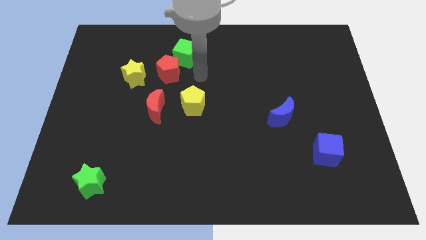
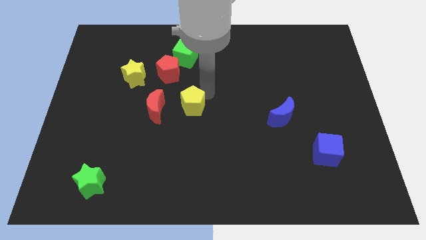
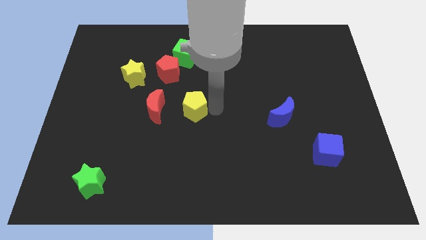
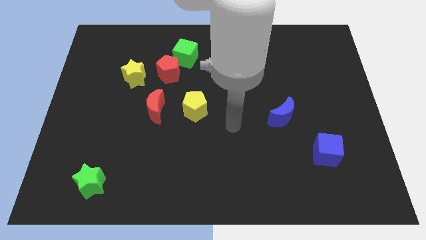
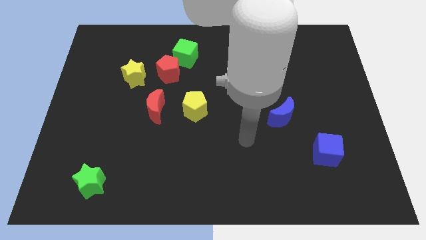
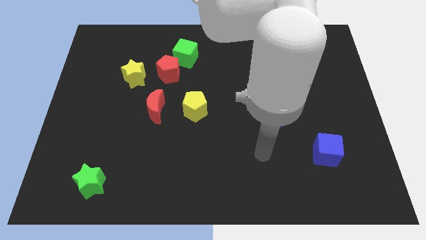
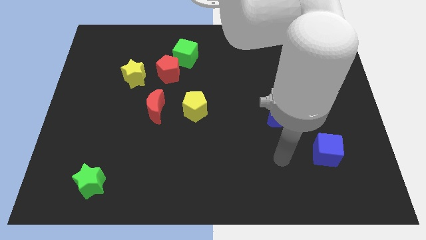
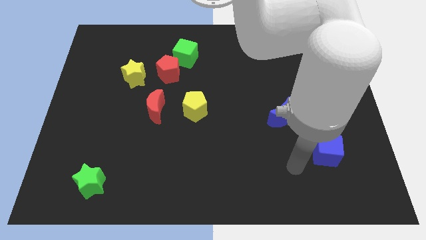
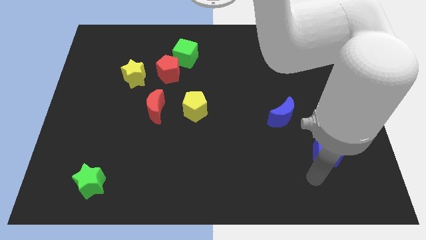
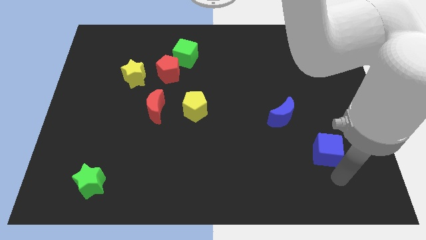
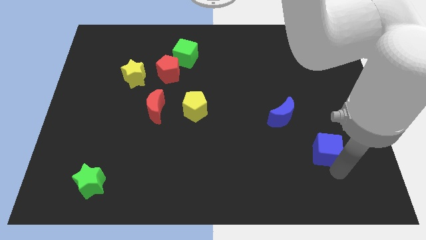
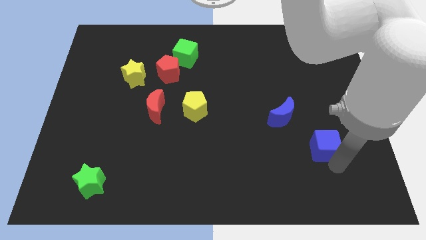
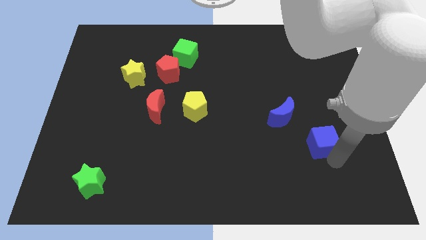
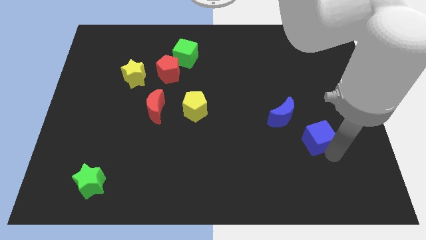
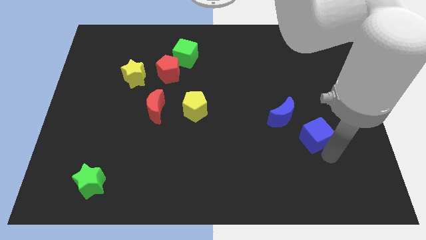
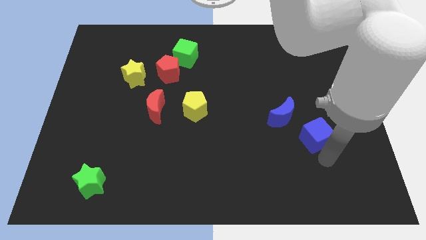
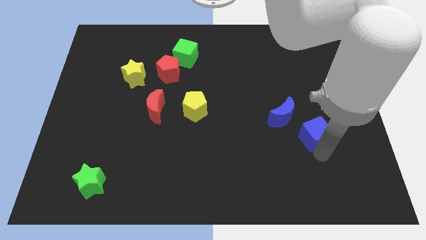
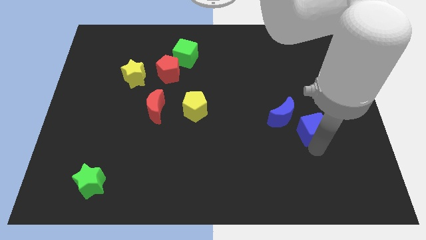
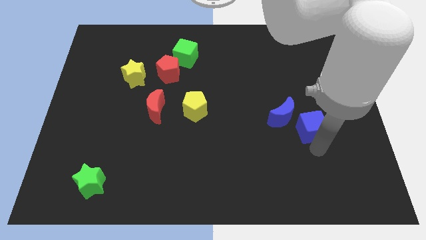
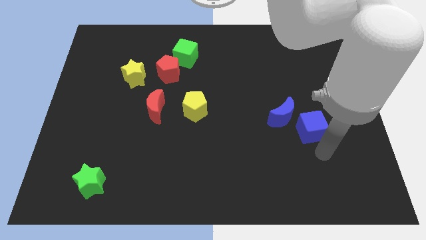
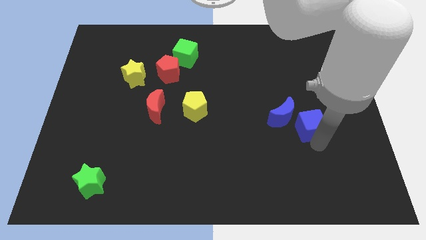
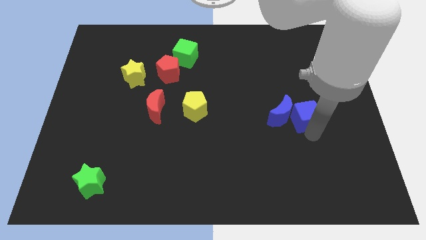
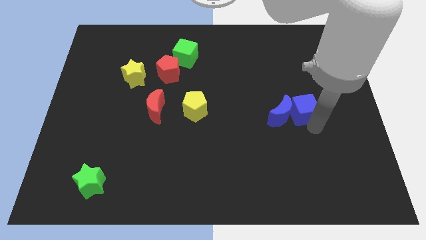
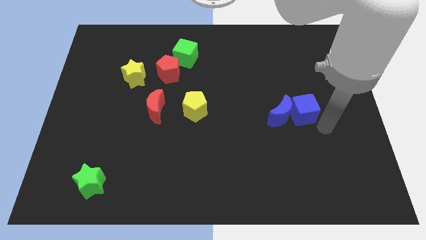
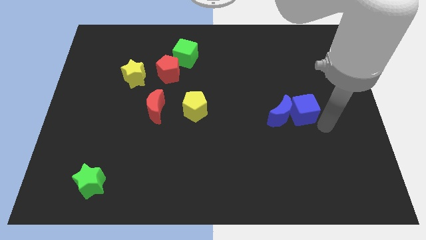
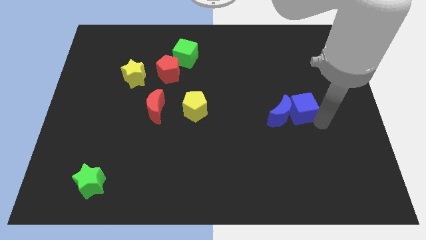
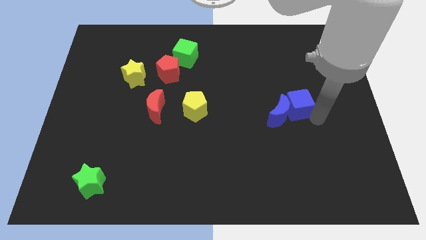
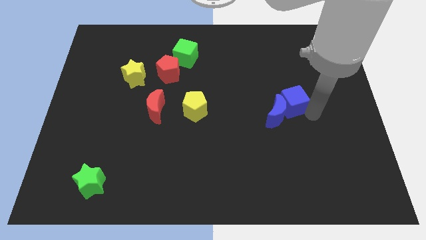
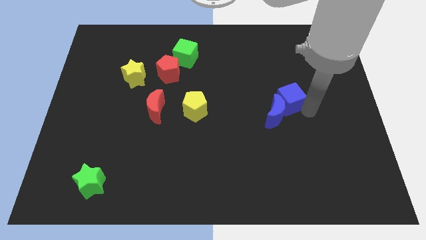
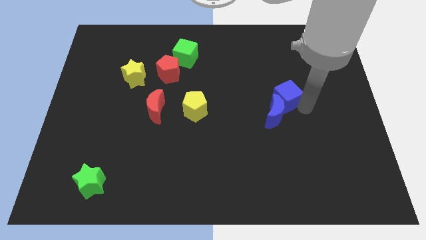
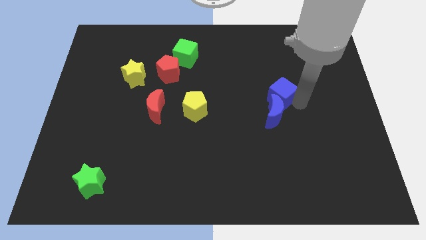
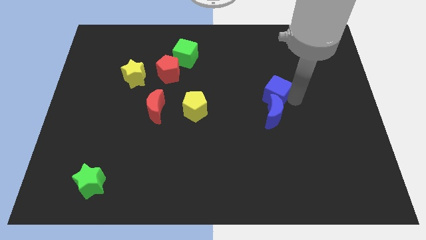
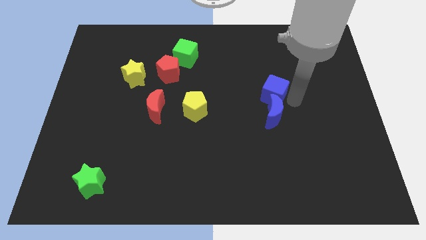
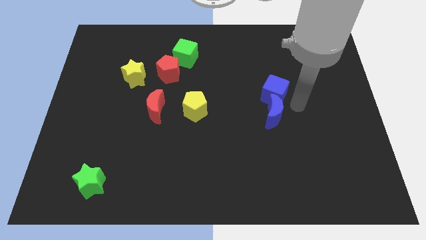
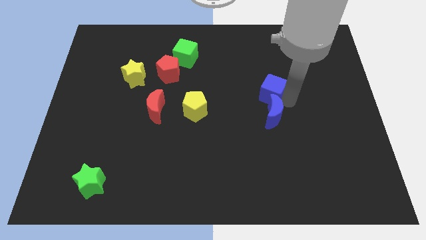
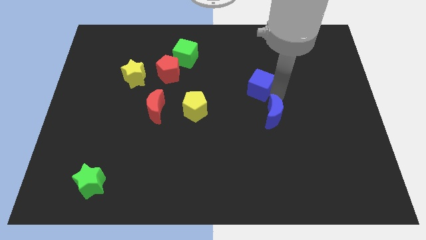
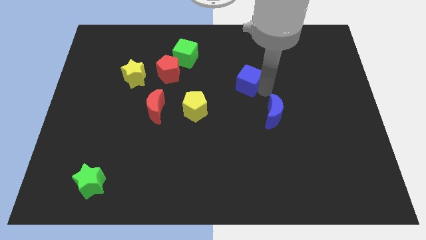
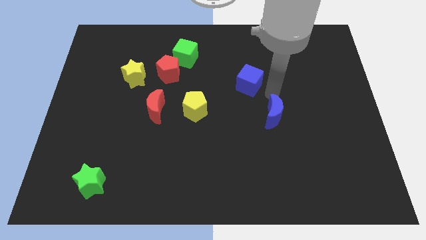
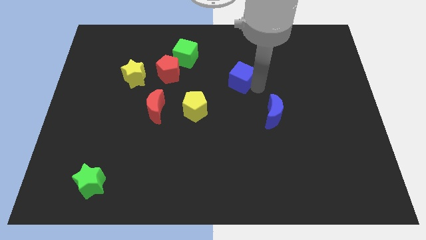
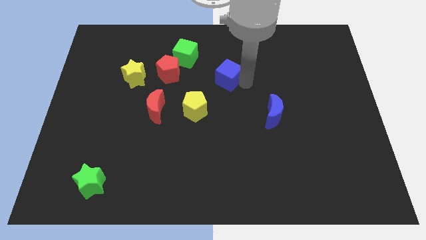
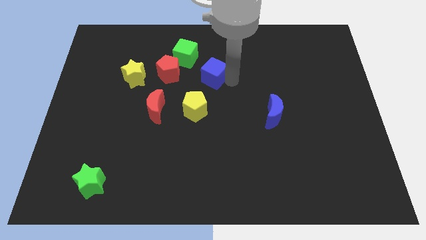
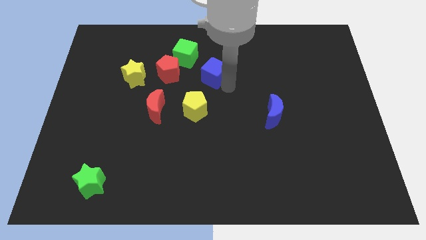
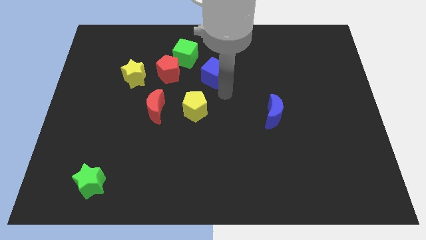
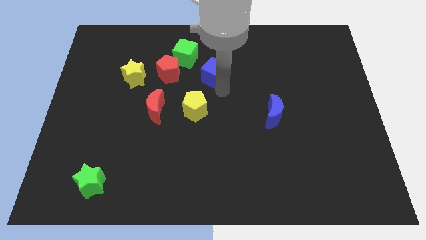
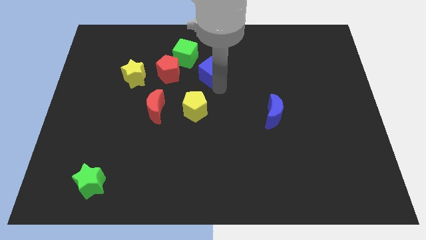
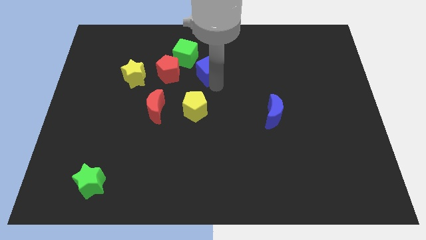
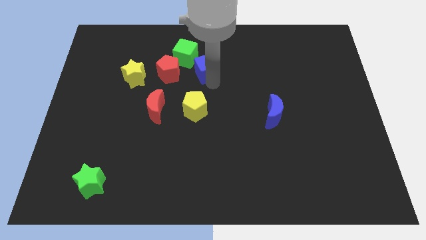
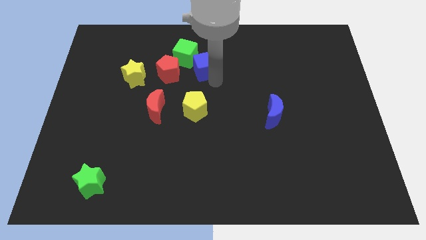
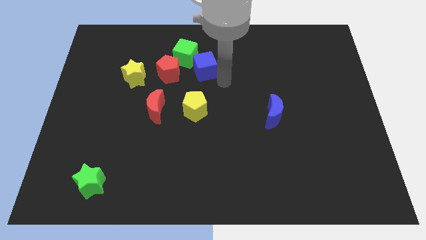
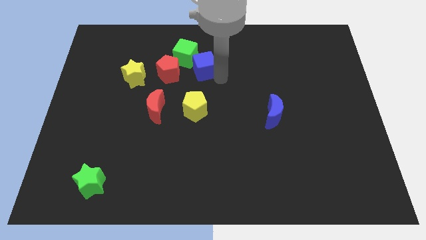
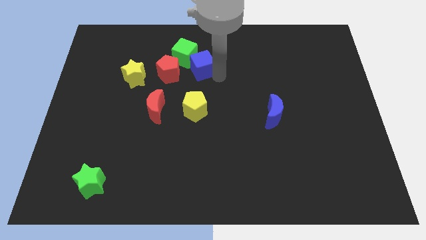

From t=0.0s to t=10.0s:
push the blue cube to the green cube

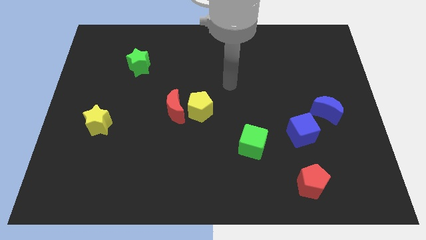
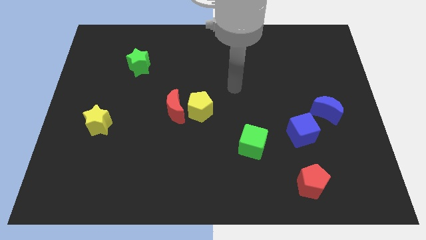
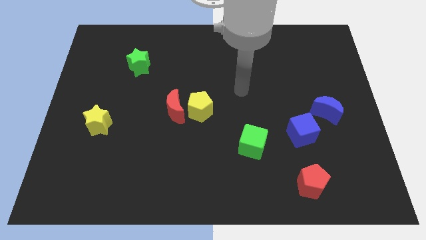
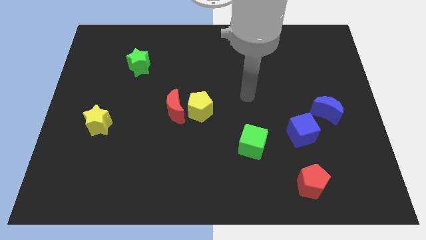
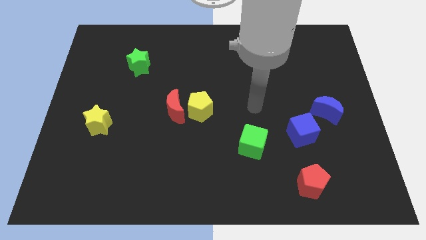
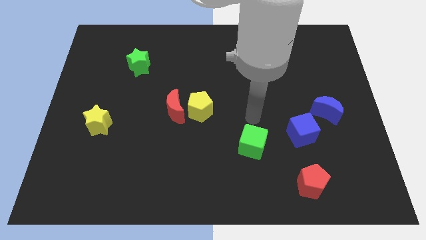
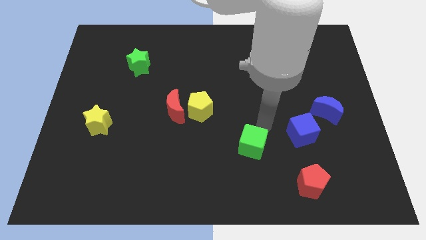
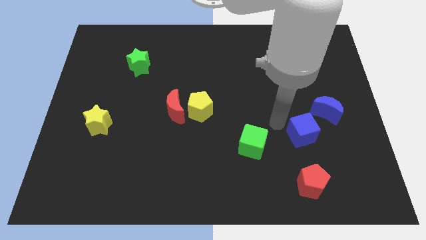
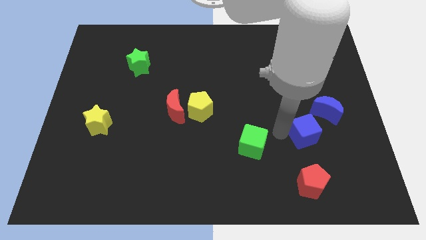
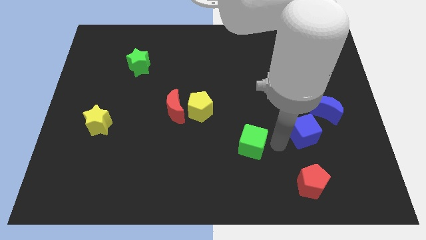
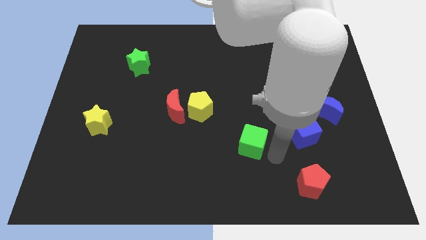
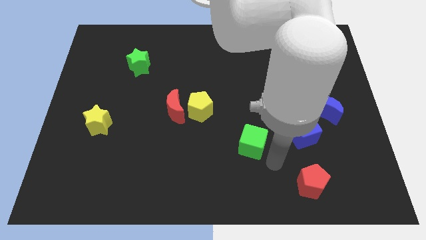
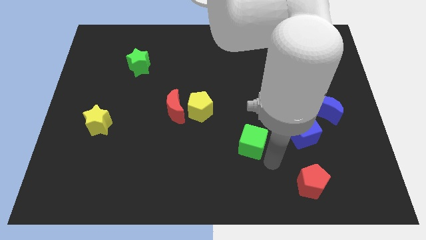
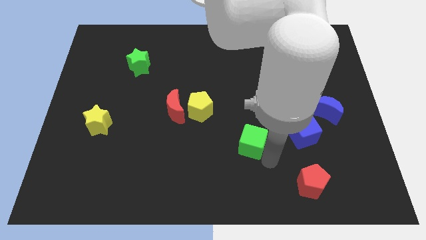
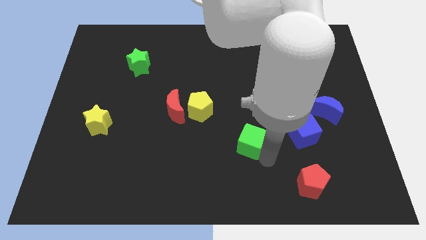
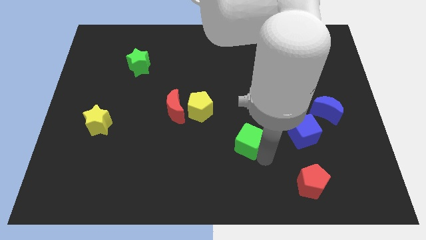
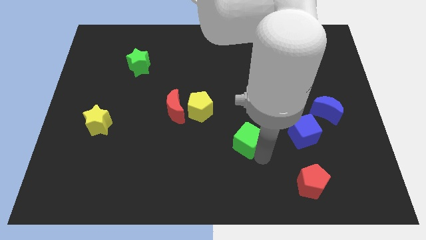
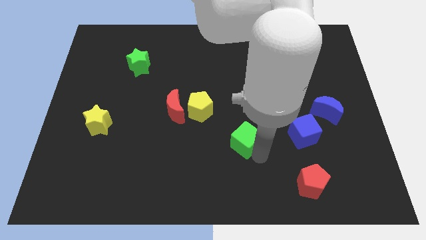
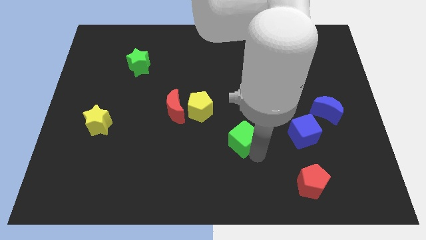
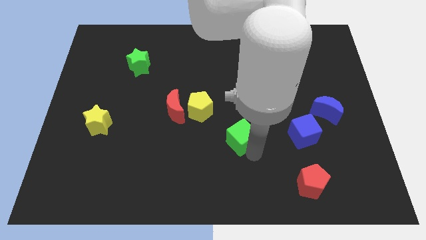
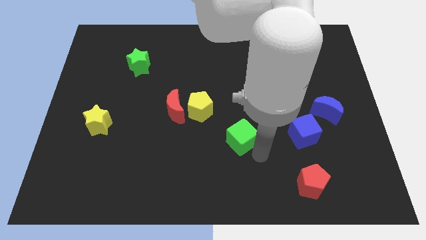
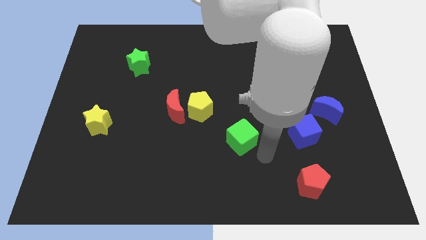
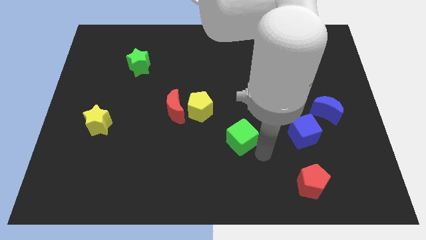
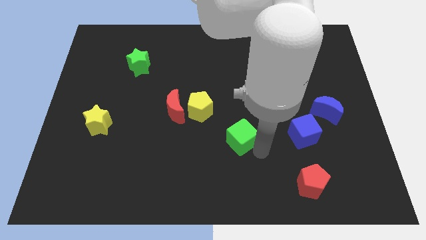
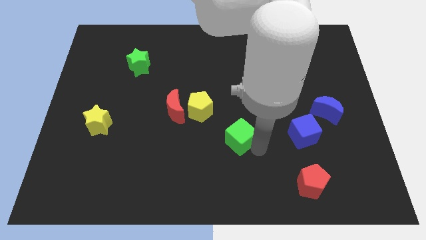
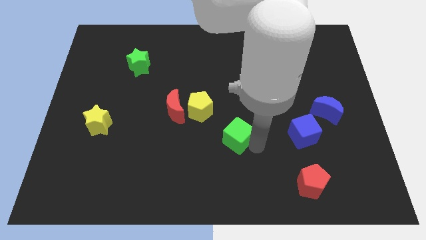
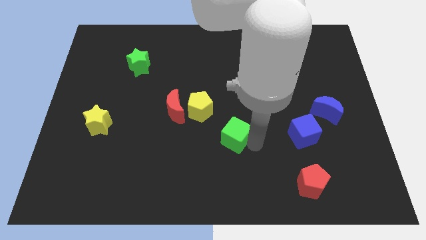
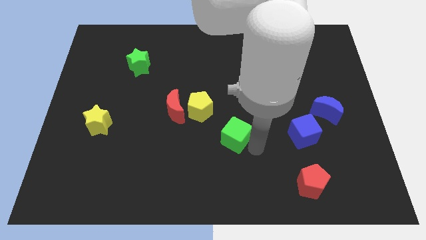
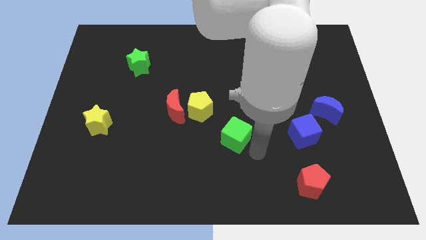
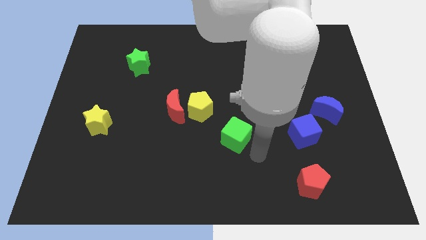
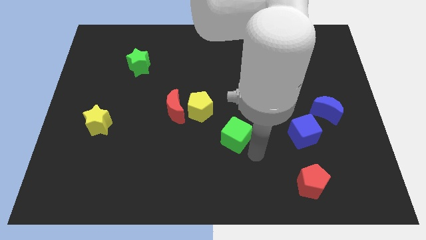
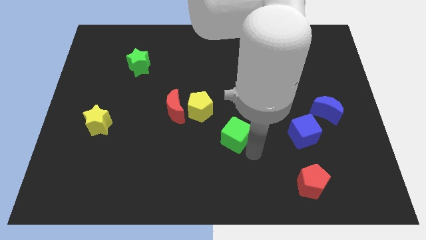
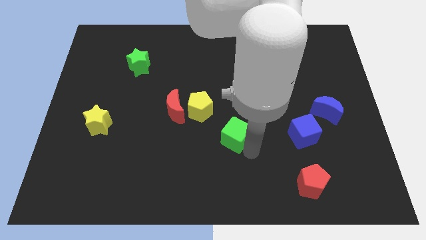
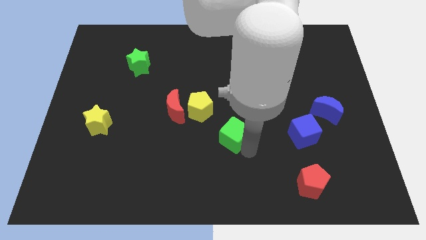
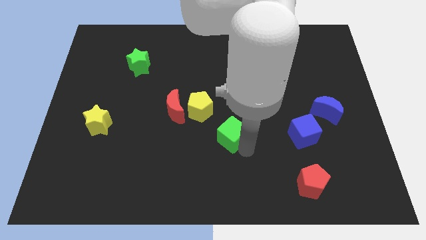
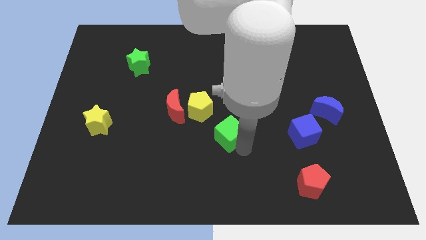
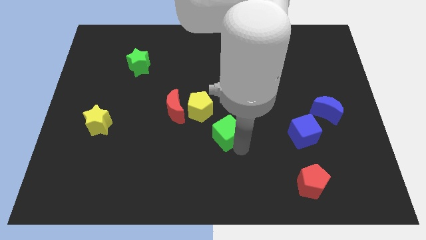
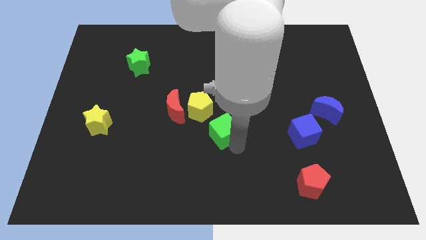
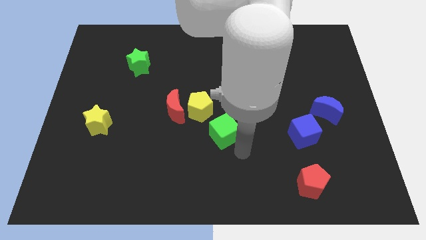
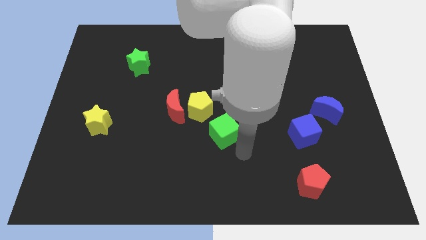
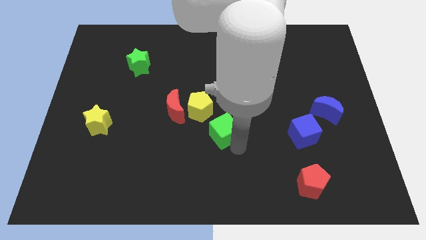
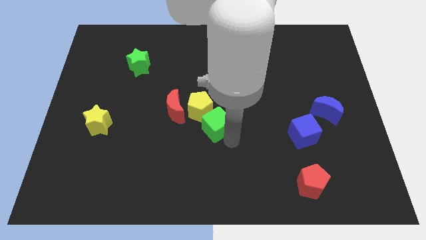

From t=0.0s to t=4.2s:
slide the green cube close to the yellow pentagon
